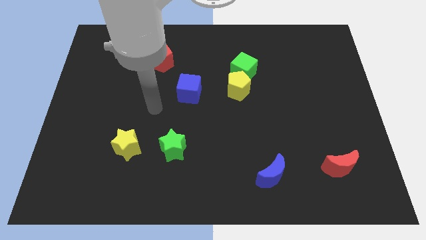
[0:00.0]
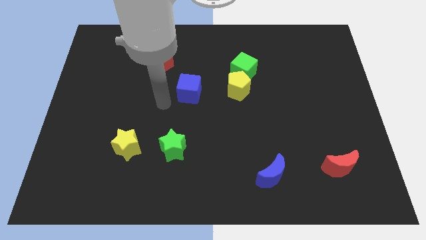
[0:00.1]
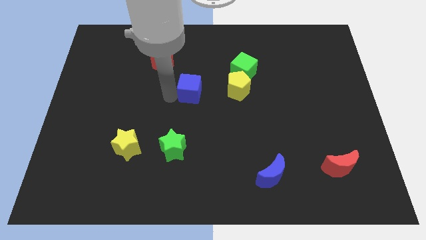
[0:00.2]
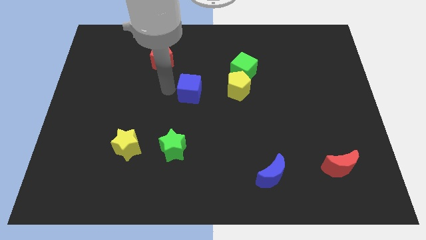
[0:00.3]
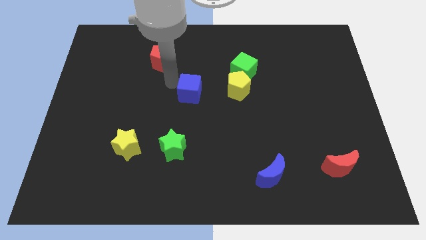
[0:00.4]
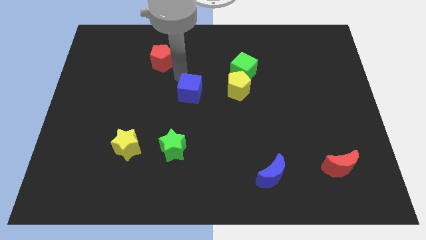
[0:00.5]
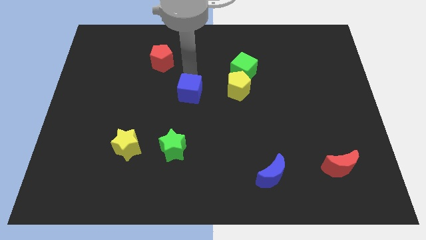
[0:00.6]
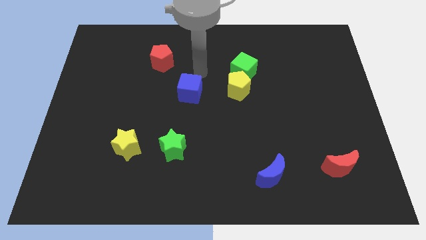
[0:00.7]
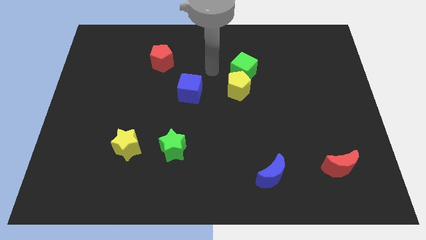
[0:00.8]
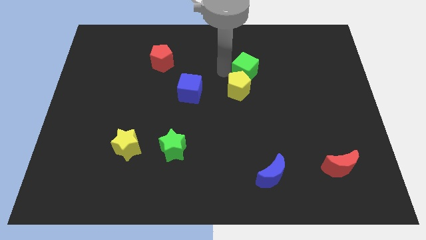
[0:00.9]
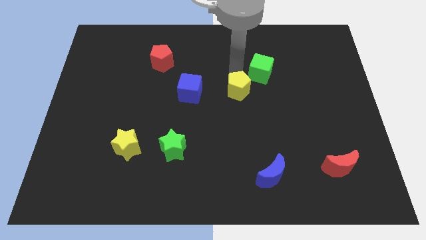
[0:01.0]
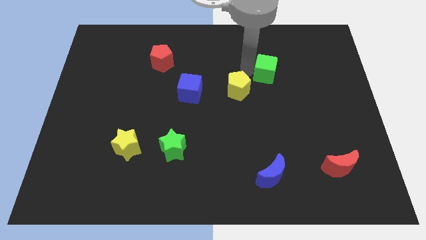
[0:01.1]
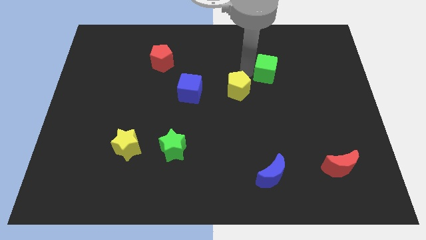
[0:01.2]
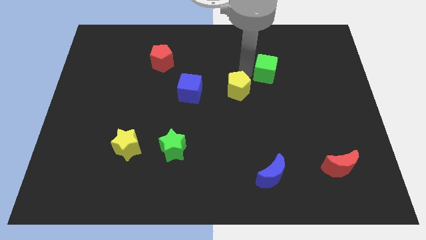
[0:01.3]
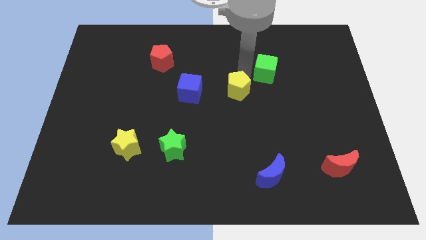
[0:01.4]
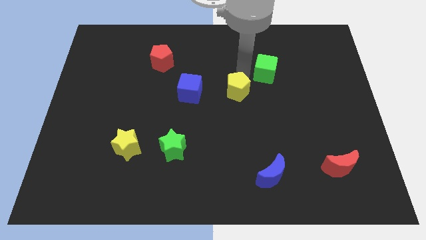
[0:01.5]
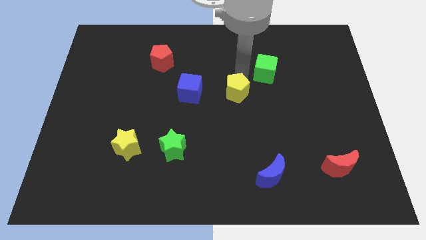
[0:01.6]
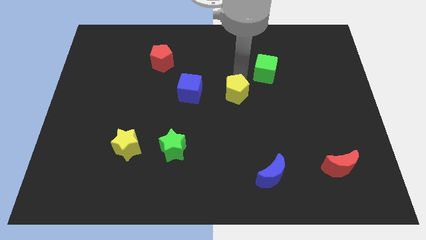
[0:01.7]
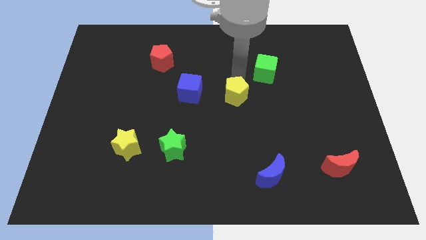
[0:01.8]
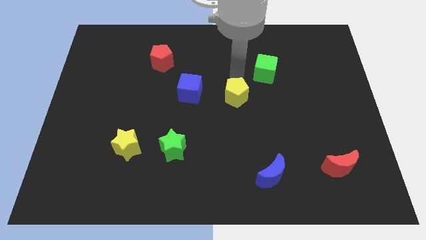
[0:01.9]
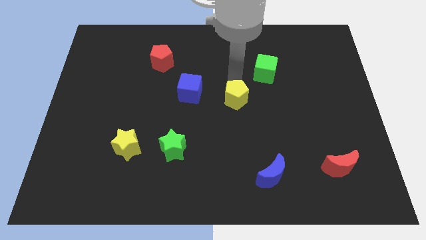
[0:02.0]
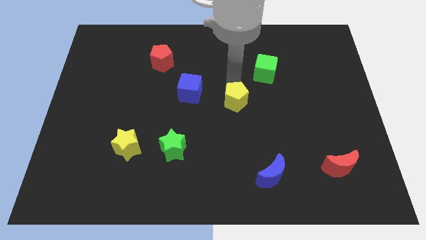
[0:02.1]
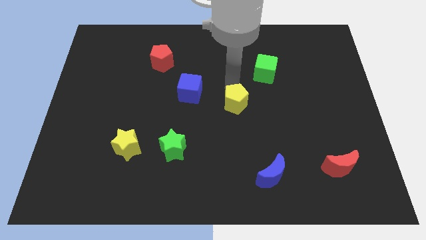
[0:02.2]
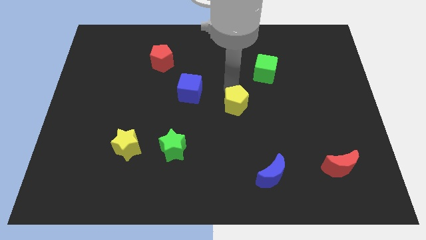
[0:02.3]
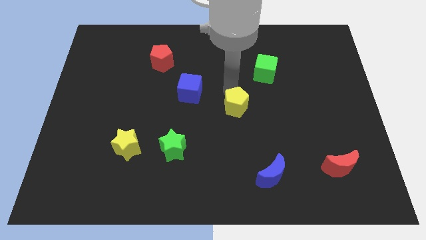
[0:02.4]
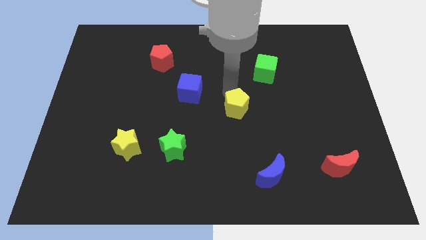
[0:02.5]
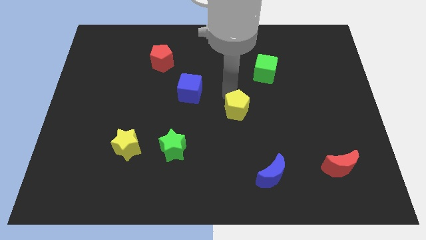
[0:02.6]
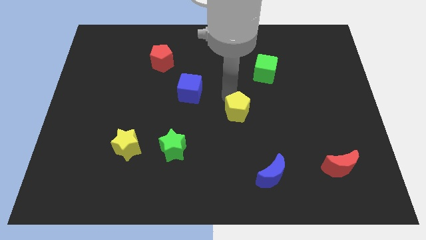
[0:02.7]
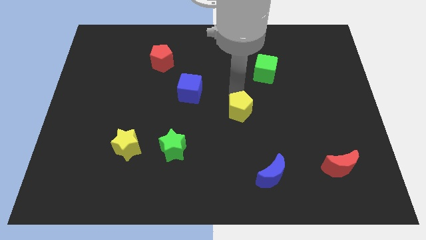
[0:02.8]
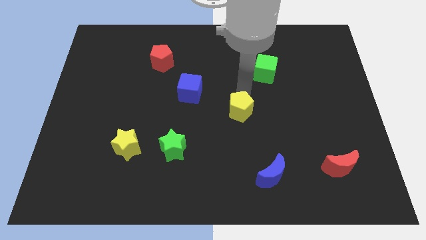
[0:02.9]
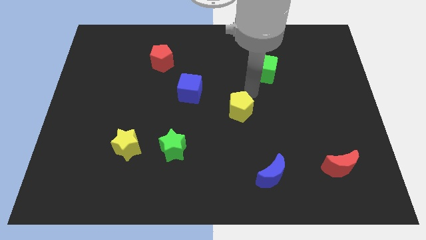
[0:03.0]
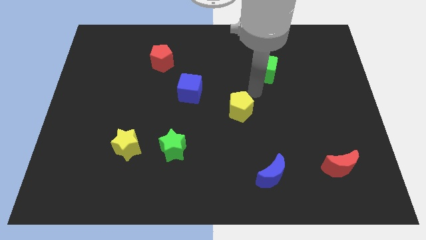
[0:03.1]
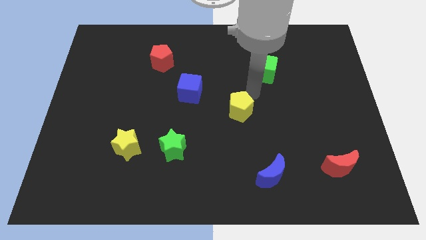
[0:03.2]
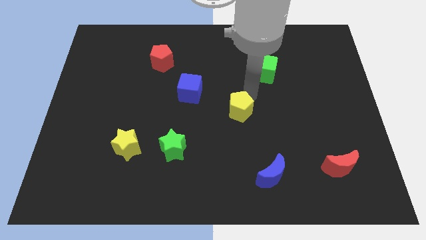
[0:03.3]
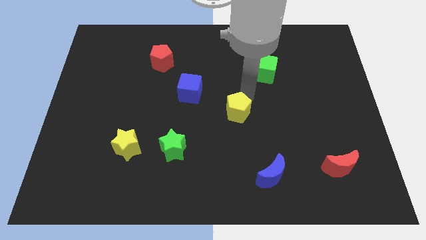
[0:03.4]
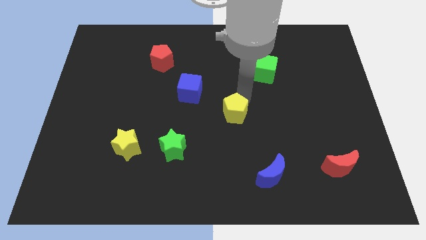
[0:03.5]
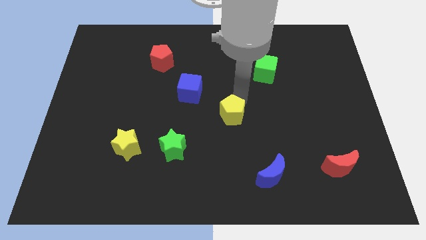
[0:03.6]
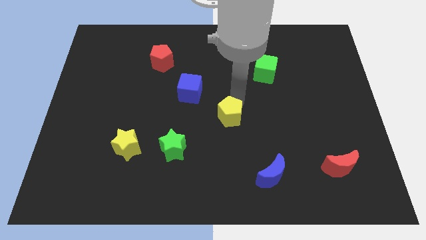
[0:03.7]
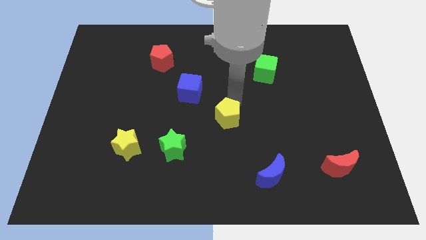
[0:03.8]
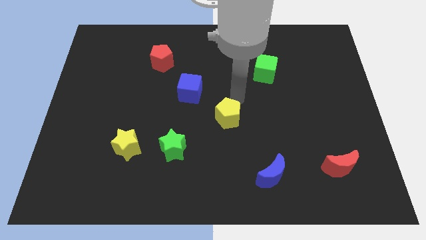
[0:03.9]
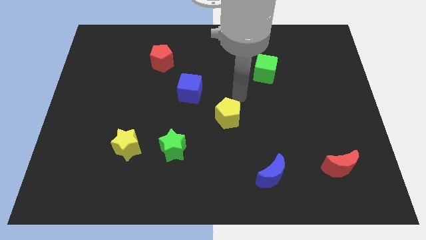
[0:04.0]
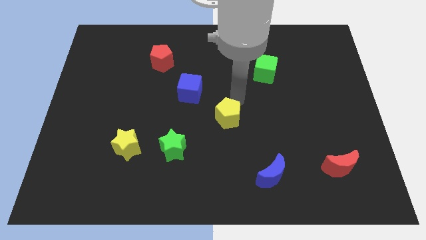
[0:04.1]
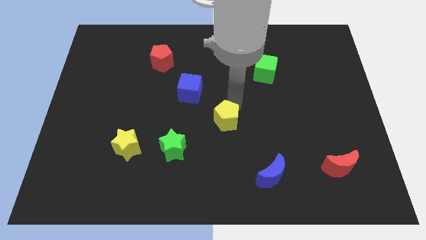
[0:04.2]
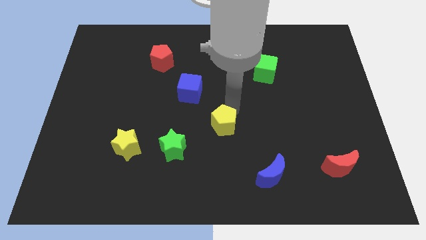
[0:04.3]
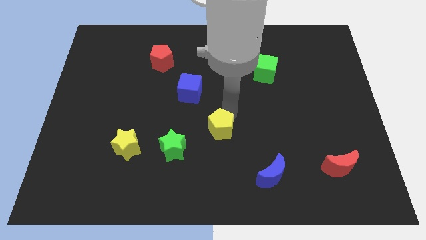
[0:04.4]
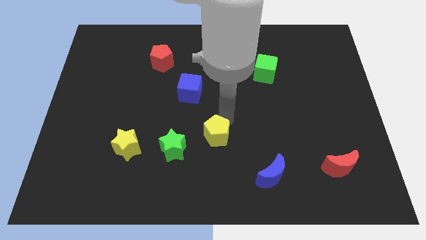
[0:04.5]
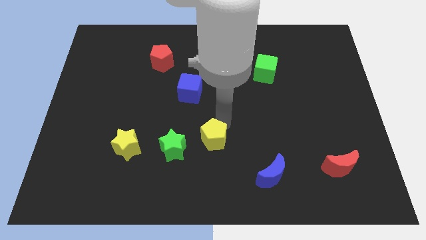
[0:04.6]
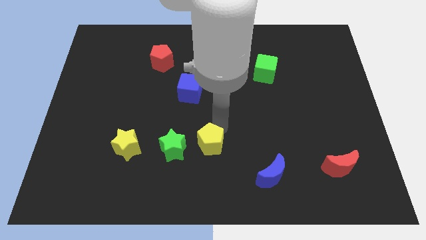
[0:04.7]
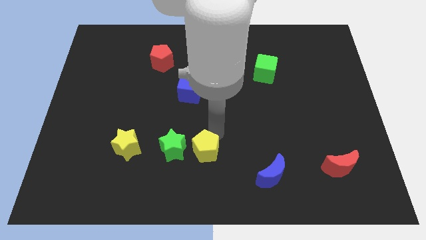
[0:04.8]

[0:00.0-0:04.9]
slide the yellow pentagon to the bottom right side of the green star

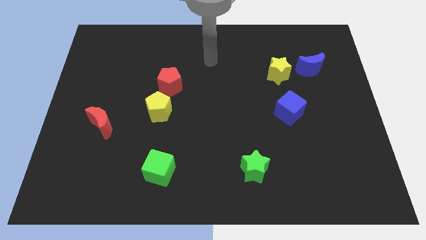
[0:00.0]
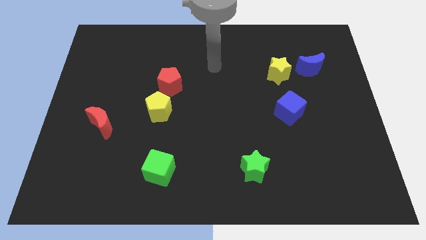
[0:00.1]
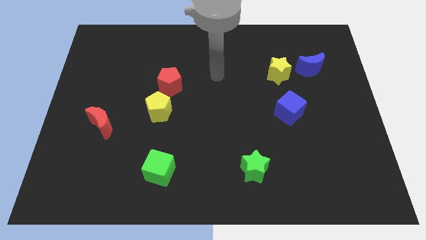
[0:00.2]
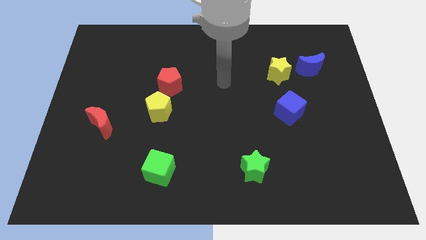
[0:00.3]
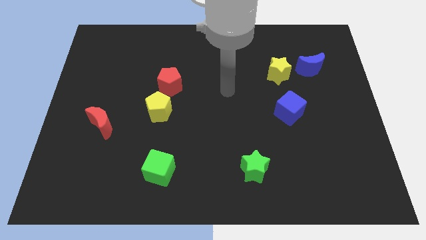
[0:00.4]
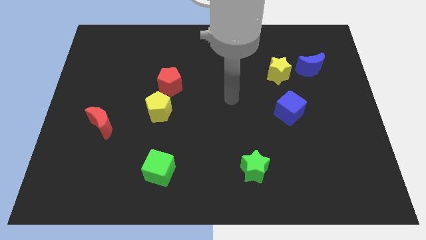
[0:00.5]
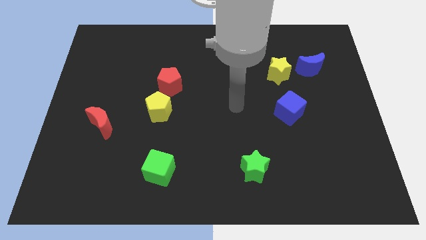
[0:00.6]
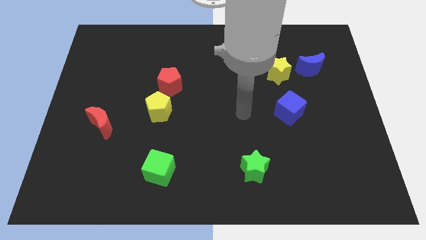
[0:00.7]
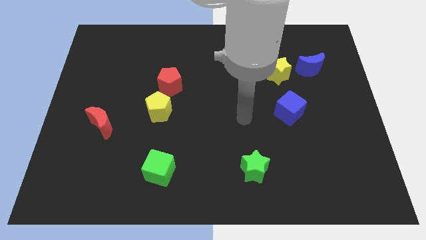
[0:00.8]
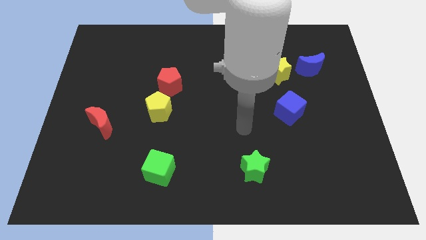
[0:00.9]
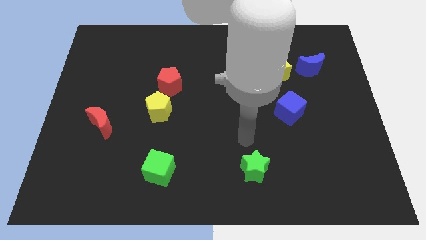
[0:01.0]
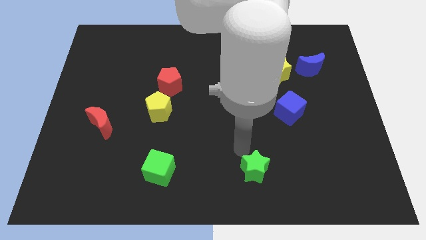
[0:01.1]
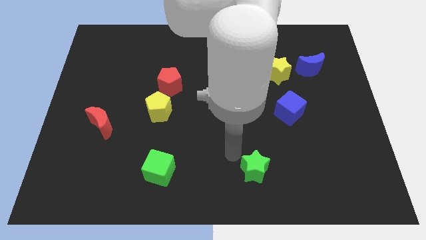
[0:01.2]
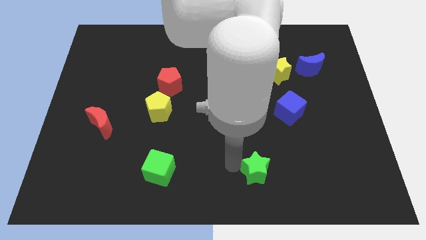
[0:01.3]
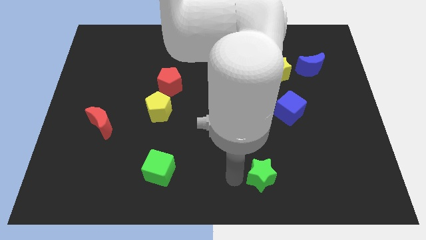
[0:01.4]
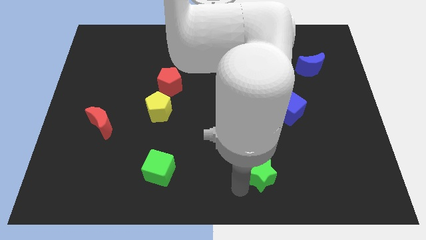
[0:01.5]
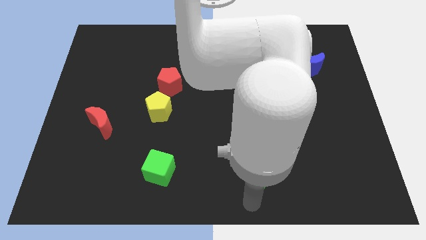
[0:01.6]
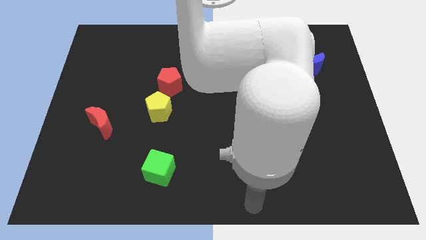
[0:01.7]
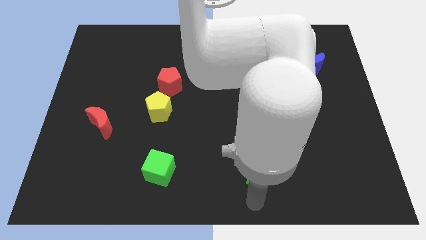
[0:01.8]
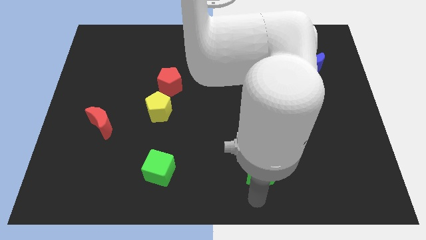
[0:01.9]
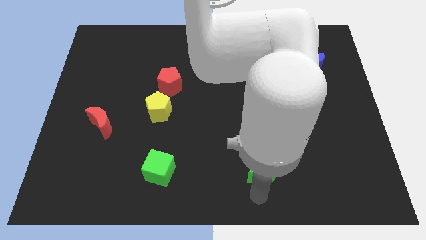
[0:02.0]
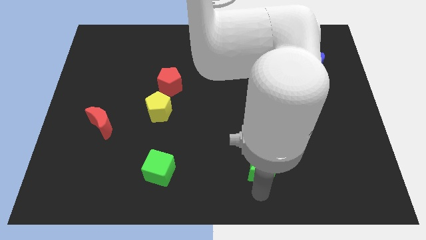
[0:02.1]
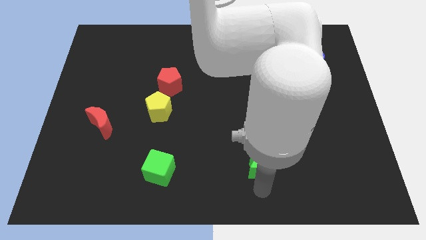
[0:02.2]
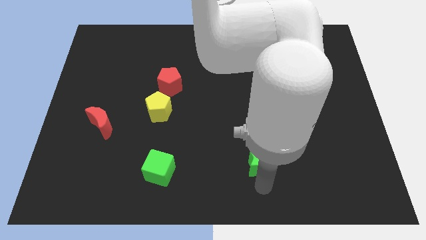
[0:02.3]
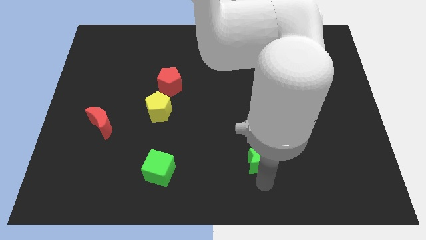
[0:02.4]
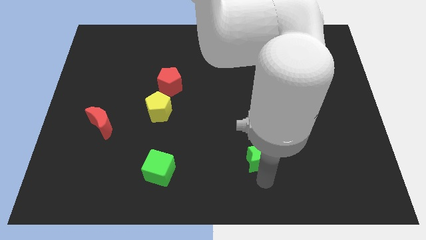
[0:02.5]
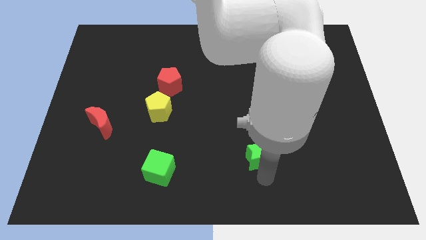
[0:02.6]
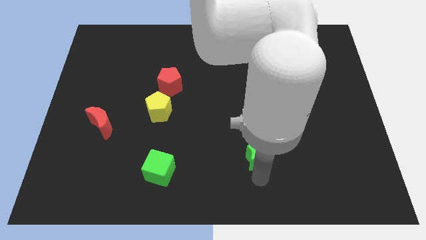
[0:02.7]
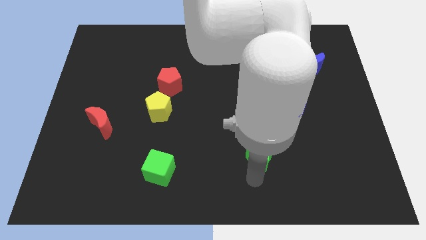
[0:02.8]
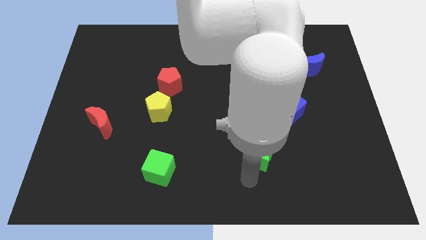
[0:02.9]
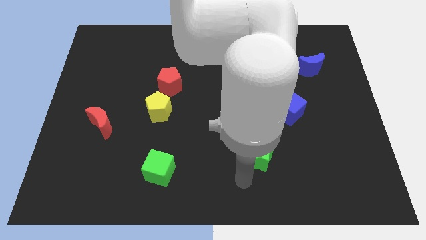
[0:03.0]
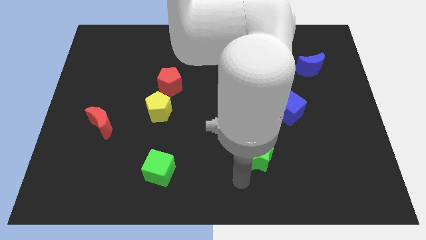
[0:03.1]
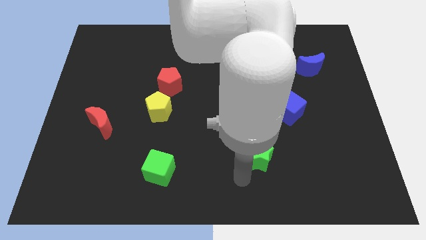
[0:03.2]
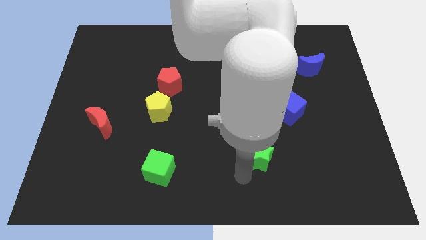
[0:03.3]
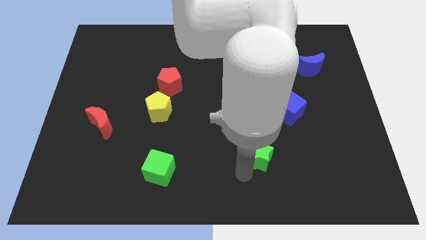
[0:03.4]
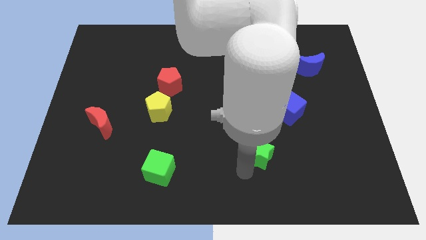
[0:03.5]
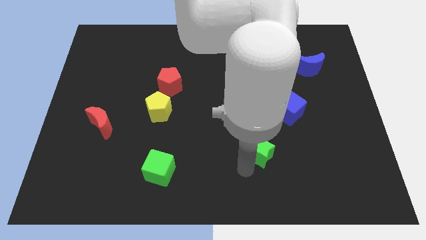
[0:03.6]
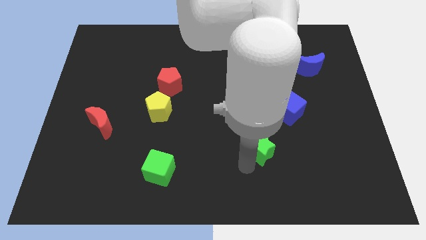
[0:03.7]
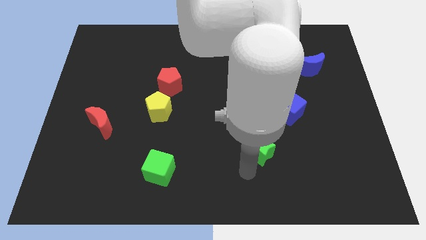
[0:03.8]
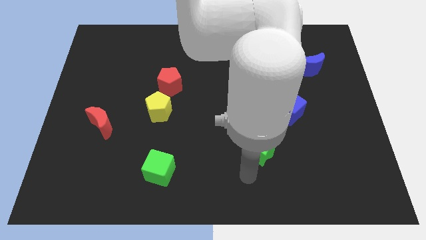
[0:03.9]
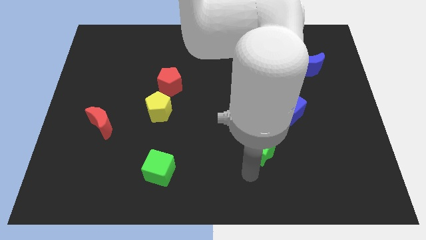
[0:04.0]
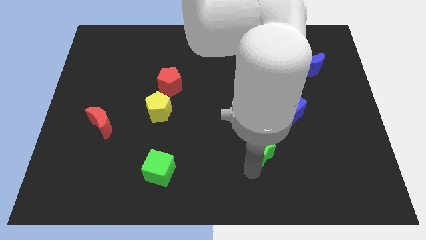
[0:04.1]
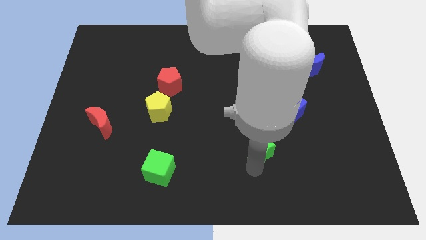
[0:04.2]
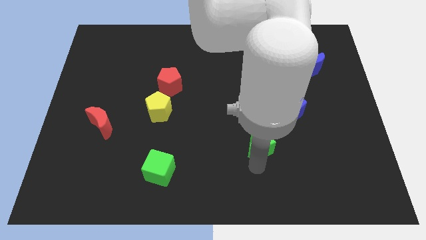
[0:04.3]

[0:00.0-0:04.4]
slide the green star diagonally down and to the left of the blue cube
